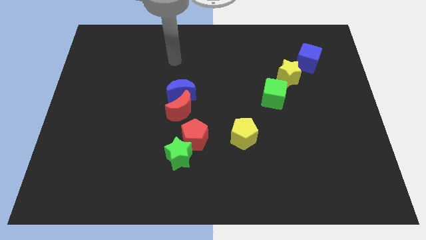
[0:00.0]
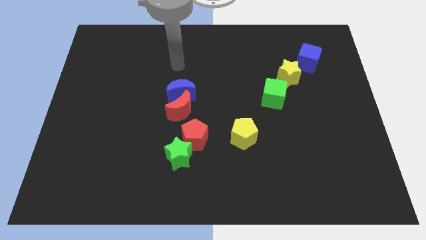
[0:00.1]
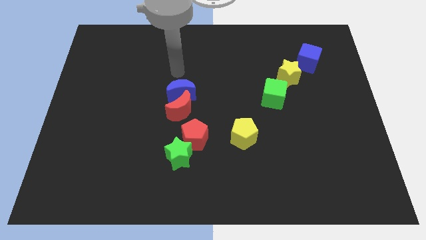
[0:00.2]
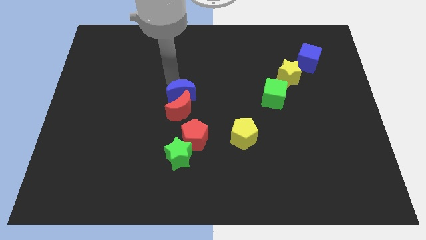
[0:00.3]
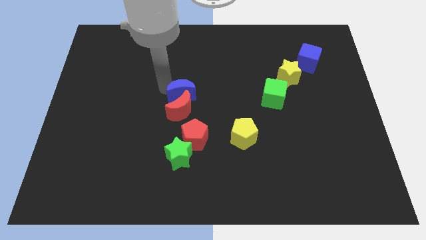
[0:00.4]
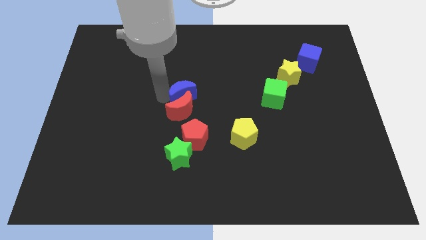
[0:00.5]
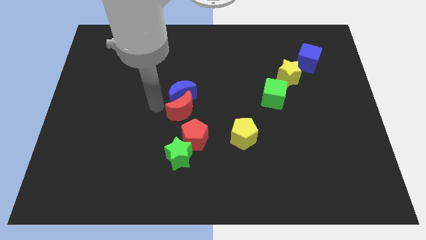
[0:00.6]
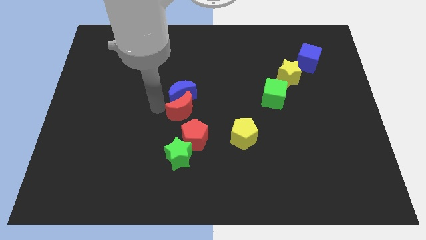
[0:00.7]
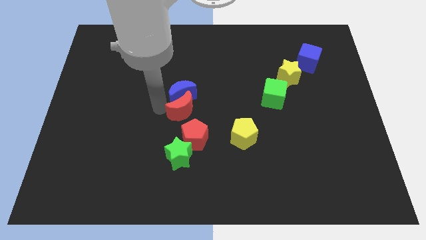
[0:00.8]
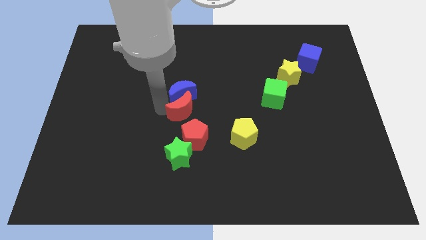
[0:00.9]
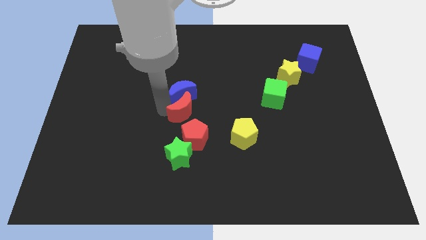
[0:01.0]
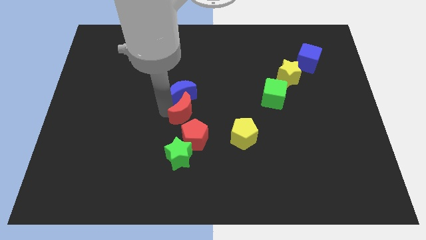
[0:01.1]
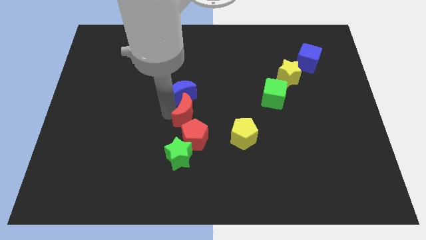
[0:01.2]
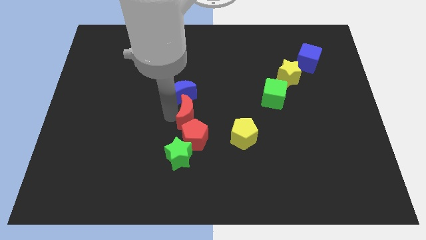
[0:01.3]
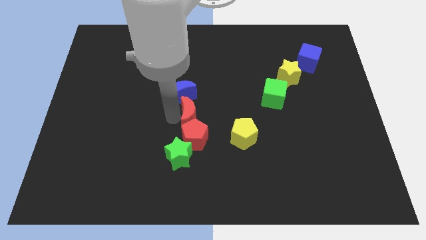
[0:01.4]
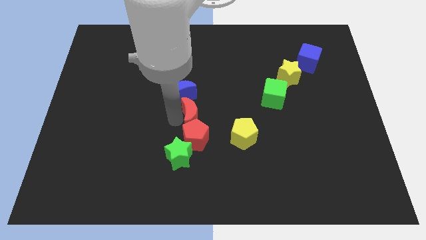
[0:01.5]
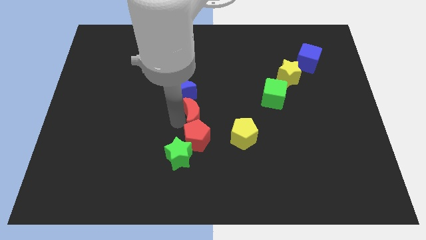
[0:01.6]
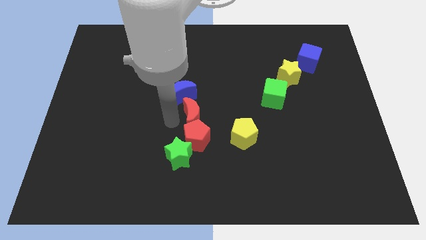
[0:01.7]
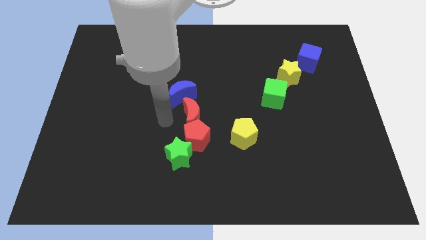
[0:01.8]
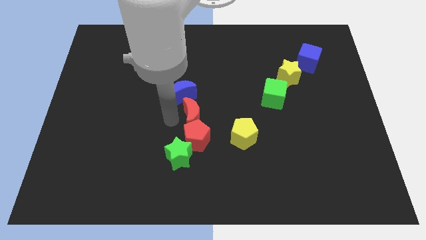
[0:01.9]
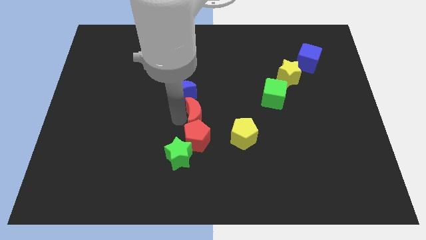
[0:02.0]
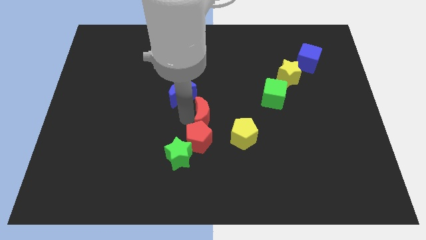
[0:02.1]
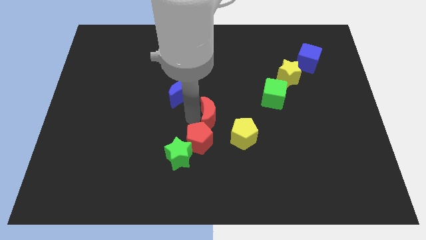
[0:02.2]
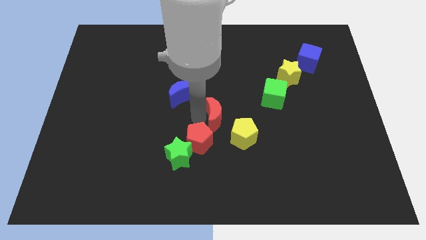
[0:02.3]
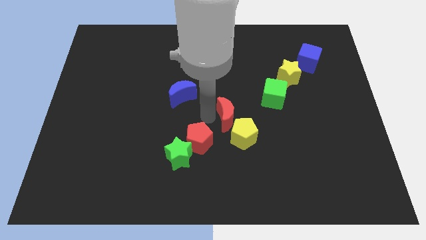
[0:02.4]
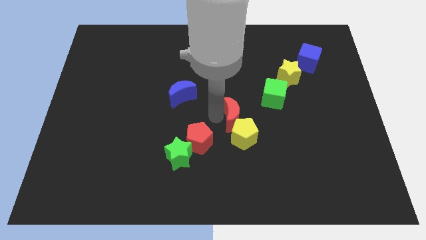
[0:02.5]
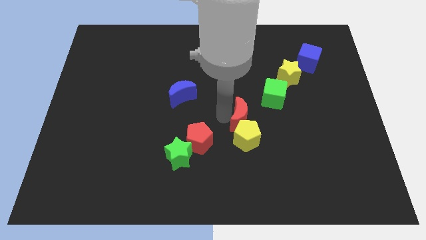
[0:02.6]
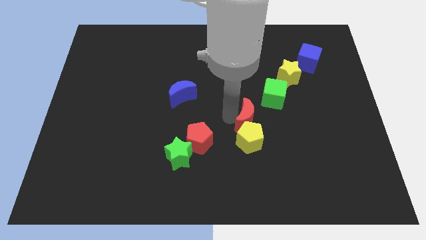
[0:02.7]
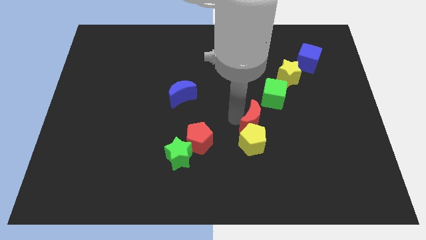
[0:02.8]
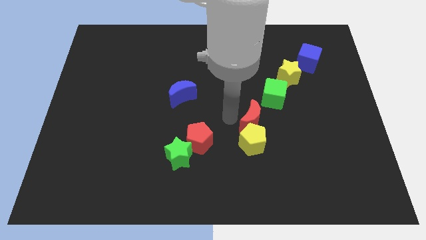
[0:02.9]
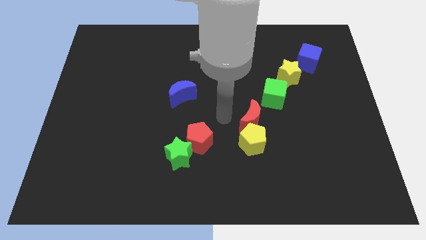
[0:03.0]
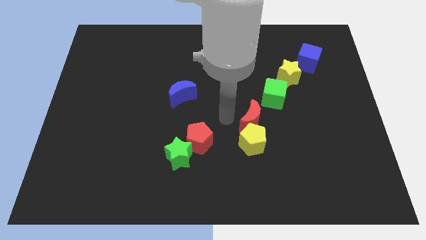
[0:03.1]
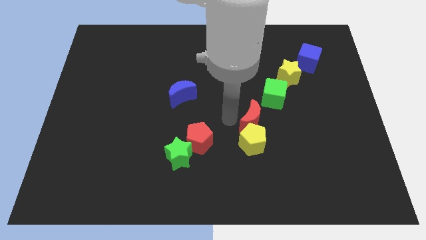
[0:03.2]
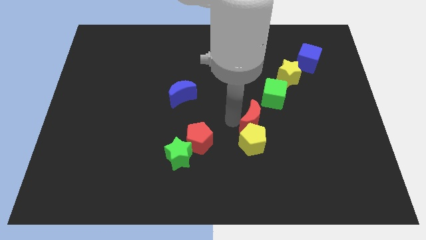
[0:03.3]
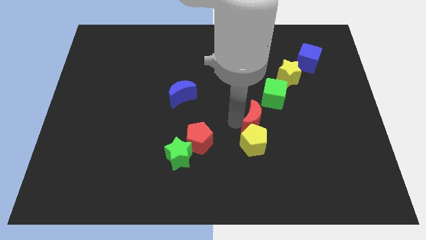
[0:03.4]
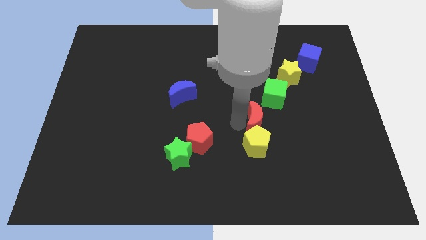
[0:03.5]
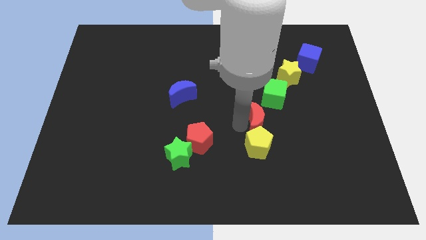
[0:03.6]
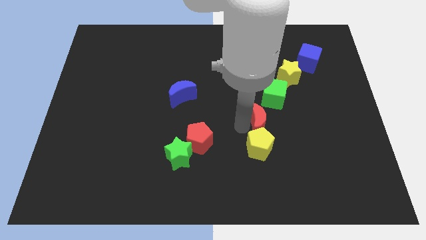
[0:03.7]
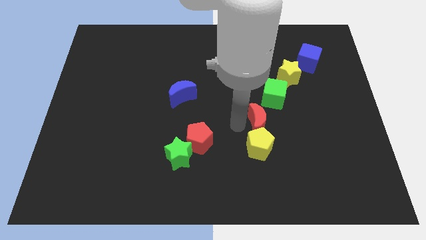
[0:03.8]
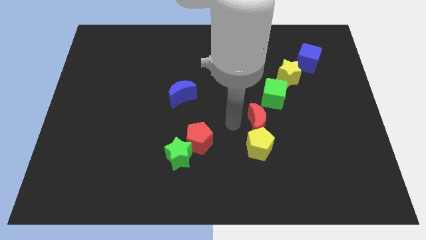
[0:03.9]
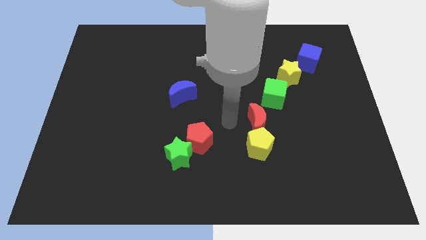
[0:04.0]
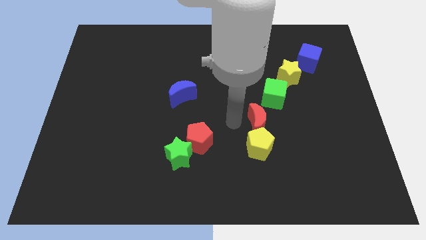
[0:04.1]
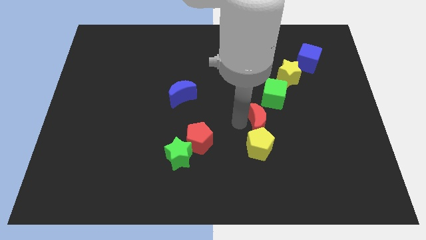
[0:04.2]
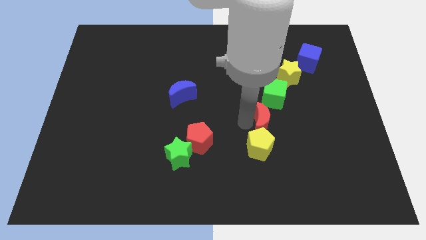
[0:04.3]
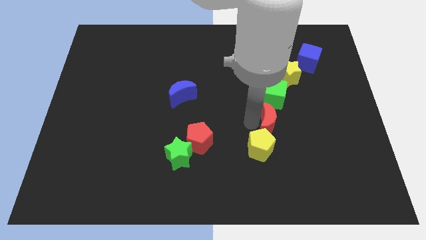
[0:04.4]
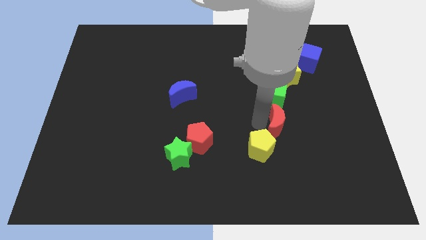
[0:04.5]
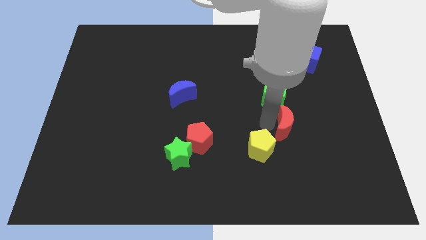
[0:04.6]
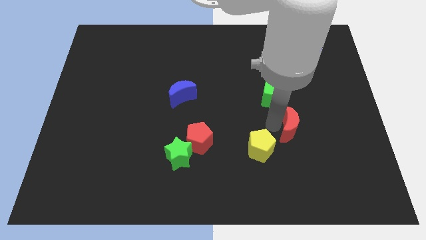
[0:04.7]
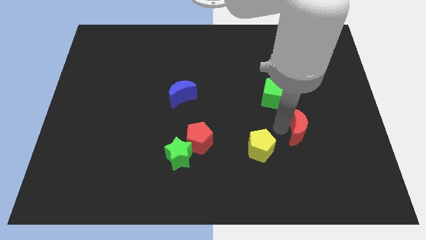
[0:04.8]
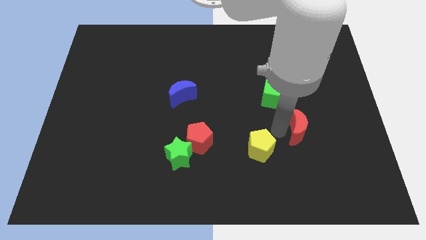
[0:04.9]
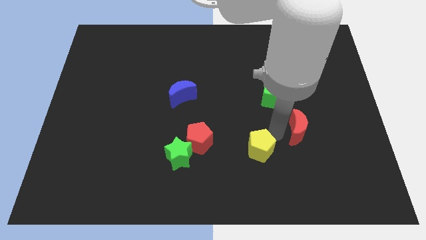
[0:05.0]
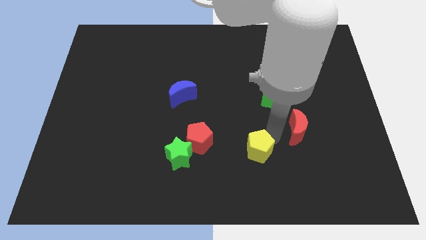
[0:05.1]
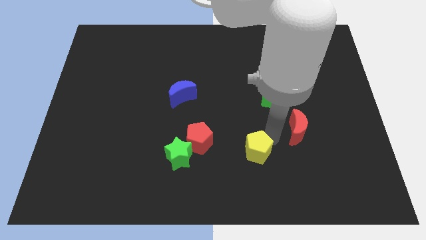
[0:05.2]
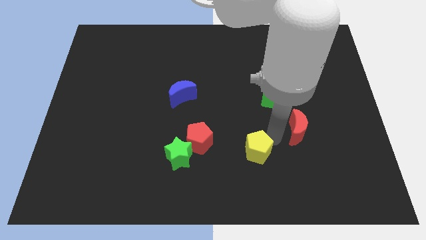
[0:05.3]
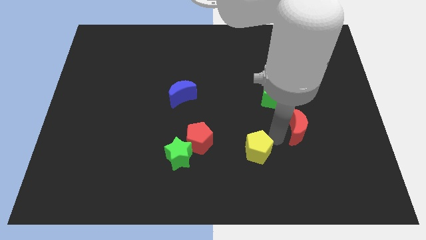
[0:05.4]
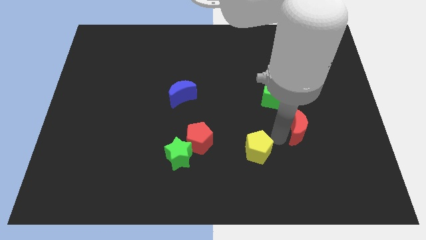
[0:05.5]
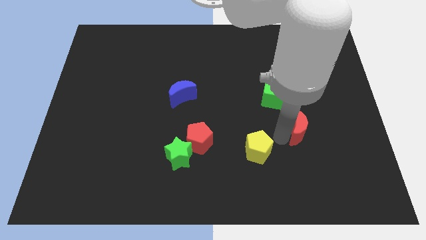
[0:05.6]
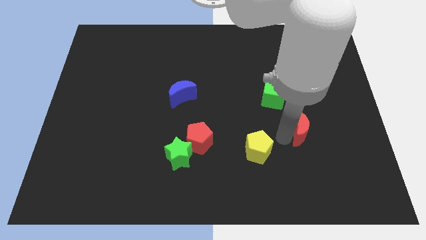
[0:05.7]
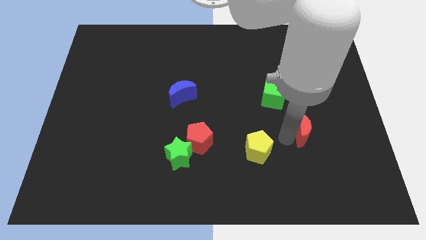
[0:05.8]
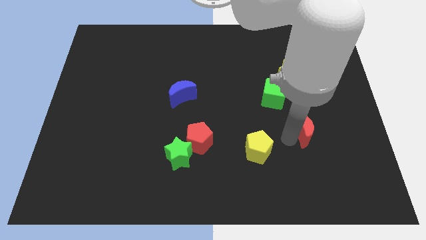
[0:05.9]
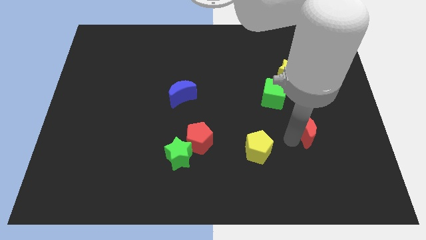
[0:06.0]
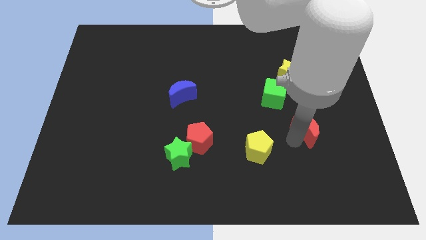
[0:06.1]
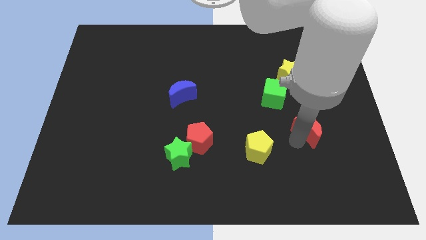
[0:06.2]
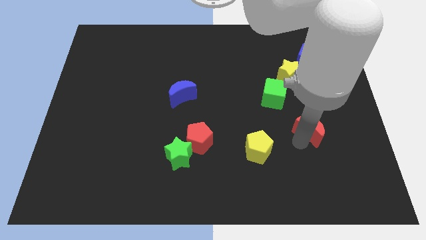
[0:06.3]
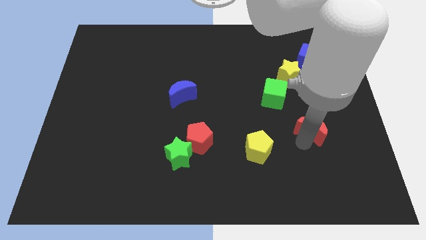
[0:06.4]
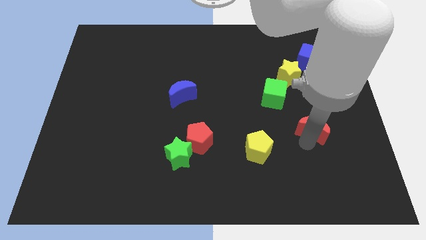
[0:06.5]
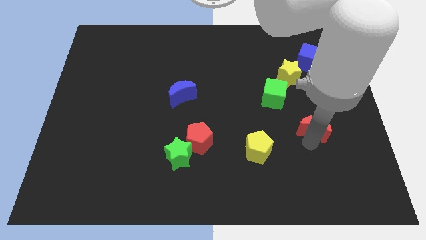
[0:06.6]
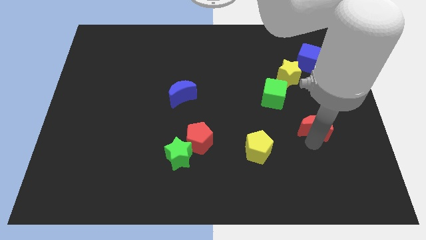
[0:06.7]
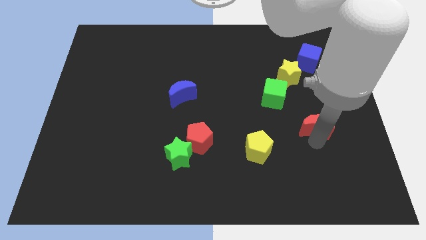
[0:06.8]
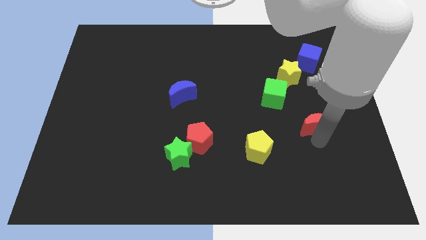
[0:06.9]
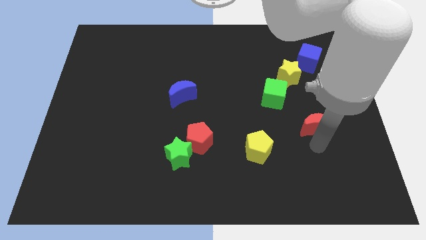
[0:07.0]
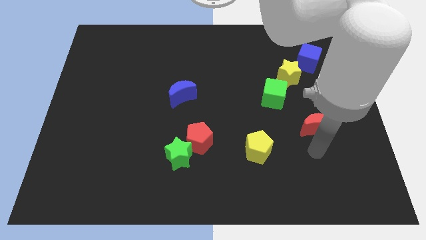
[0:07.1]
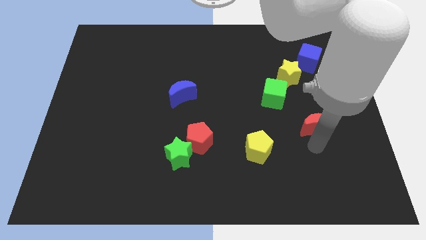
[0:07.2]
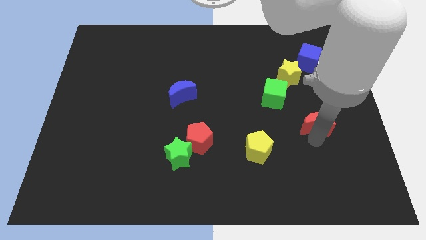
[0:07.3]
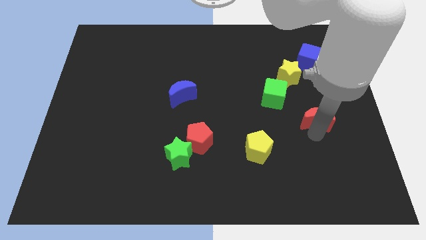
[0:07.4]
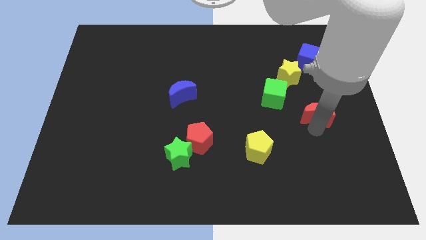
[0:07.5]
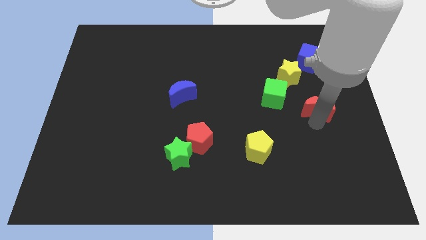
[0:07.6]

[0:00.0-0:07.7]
push the red moon to the bottom side of the blue cube
